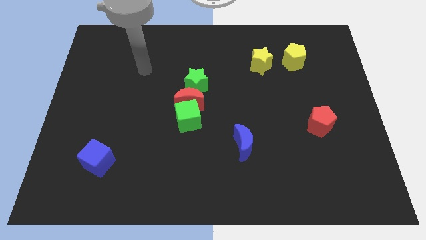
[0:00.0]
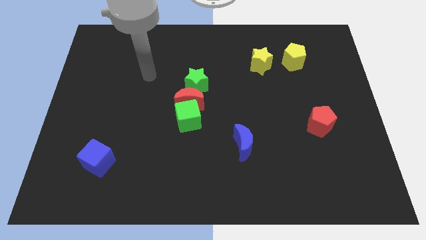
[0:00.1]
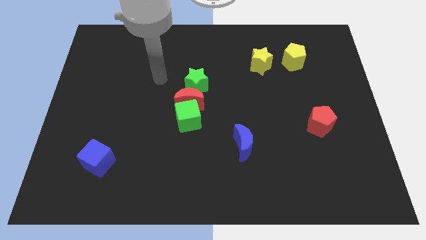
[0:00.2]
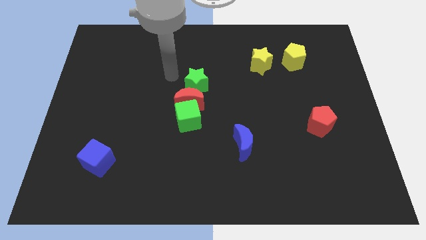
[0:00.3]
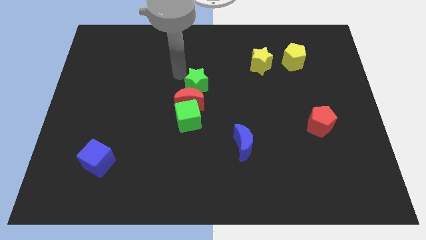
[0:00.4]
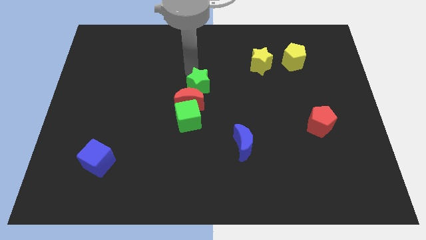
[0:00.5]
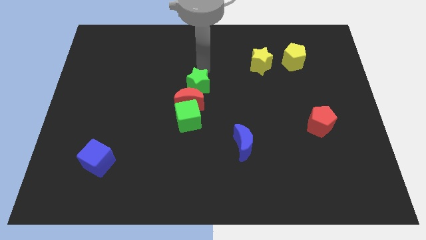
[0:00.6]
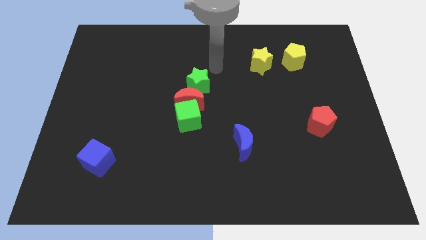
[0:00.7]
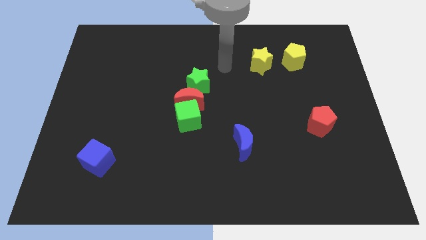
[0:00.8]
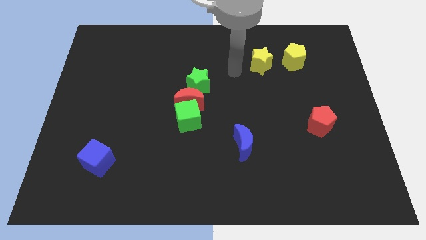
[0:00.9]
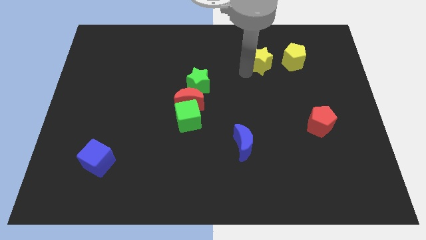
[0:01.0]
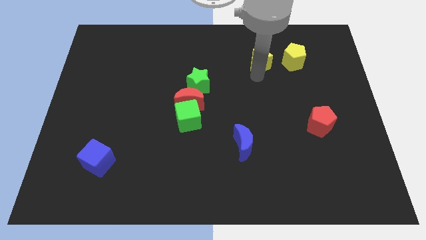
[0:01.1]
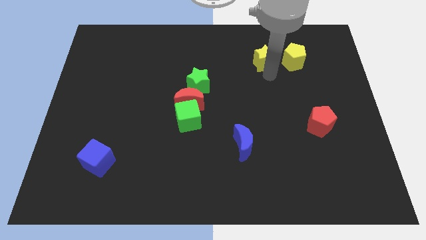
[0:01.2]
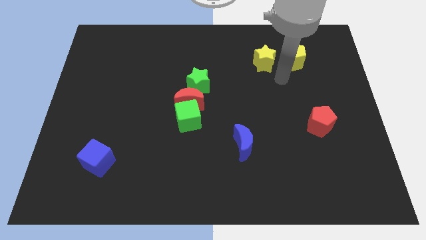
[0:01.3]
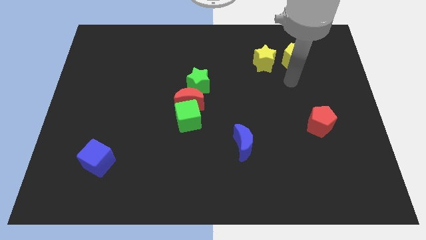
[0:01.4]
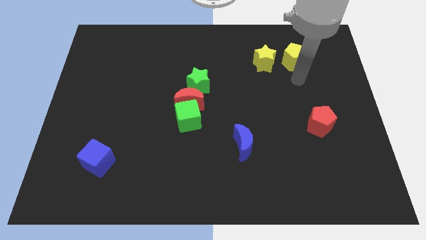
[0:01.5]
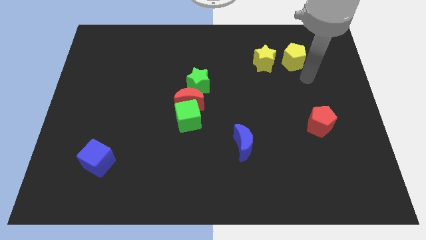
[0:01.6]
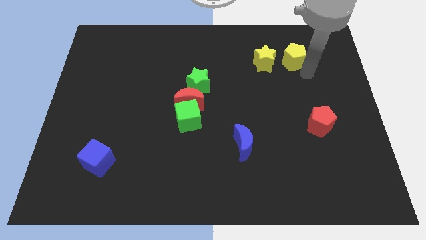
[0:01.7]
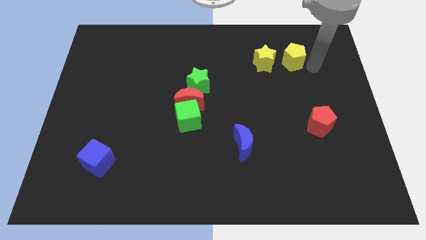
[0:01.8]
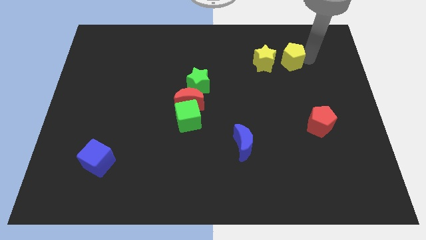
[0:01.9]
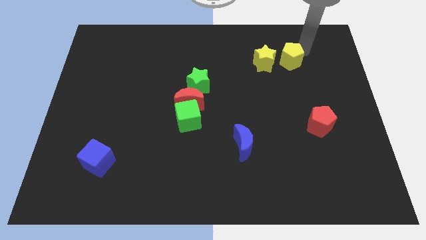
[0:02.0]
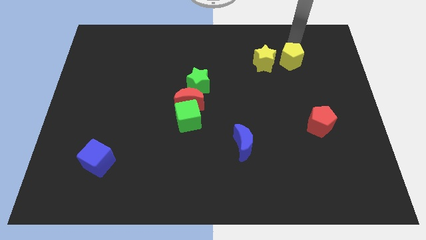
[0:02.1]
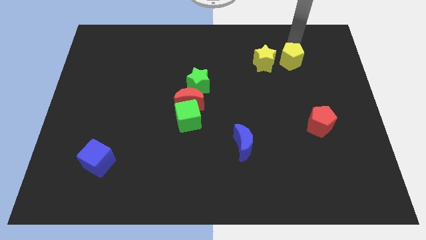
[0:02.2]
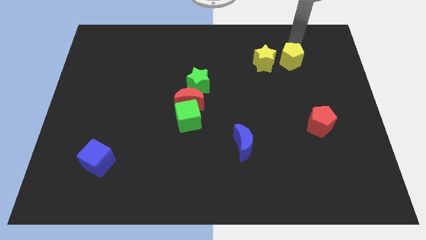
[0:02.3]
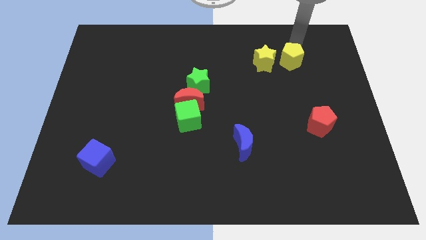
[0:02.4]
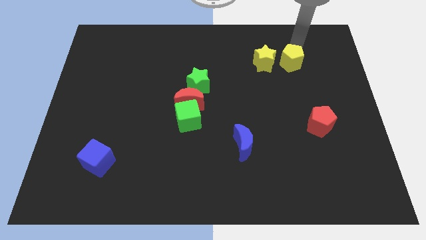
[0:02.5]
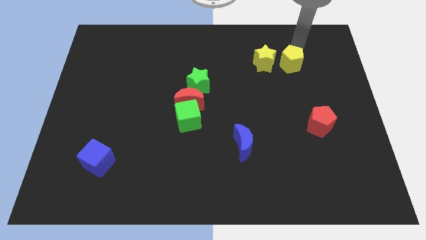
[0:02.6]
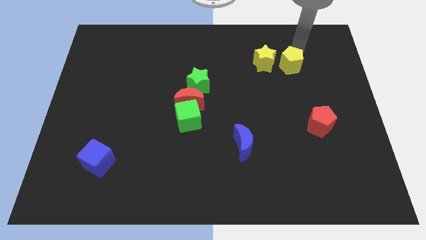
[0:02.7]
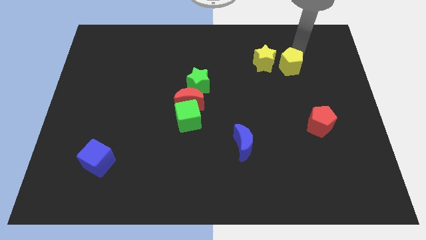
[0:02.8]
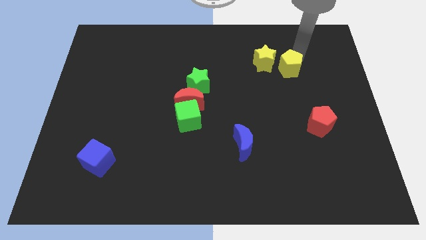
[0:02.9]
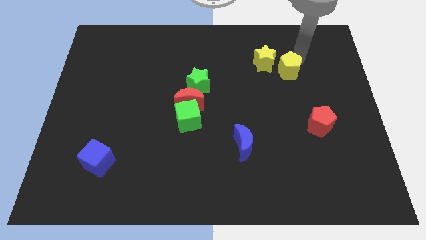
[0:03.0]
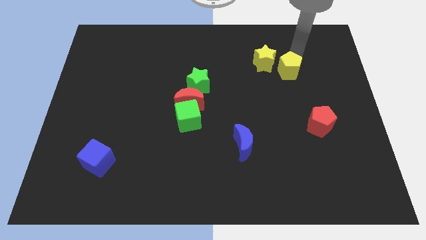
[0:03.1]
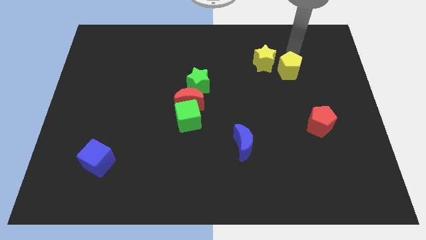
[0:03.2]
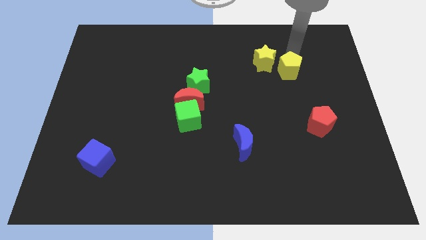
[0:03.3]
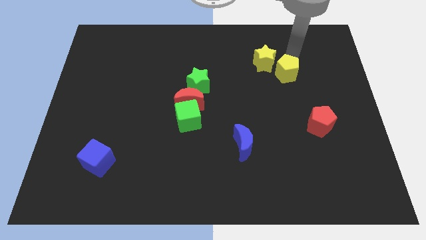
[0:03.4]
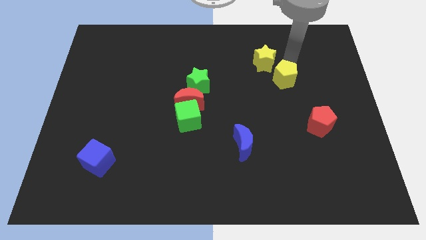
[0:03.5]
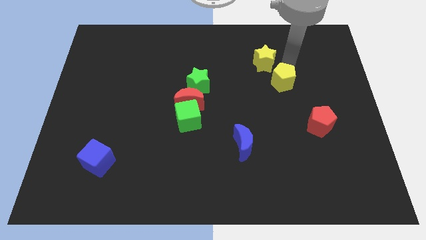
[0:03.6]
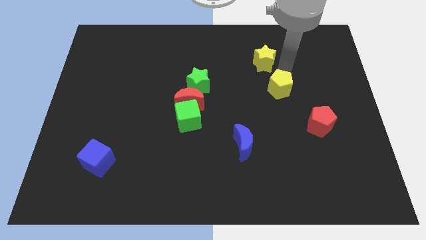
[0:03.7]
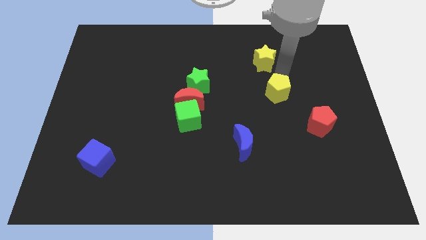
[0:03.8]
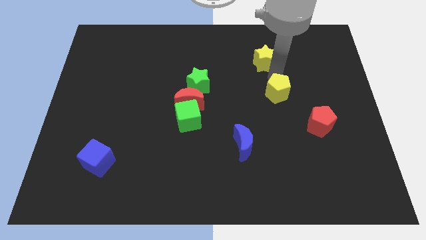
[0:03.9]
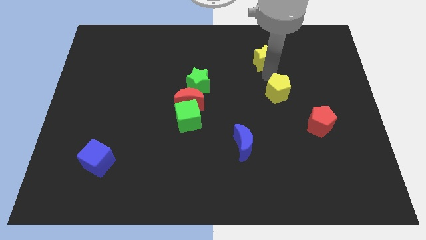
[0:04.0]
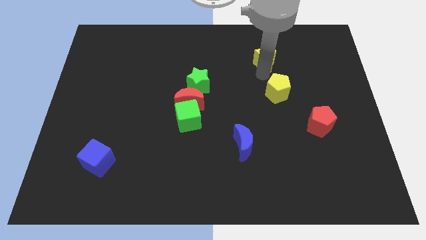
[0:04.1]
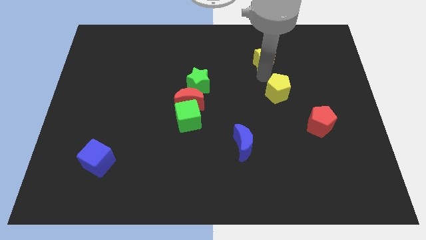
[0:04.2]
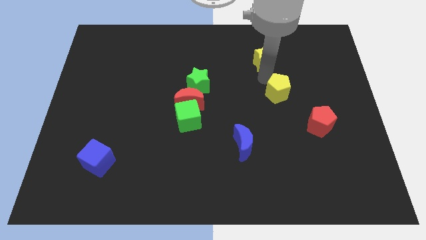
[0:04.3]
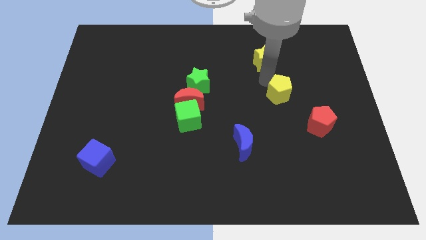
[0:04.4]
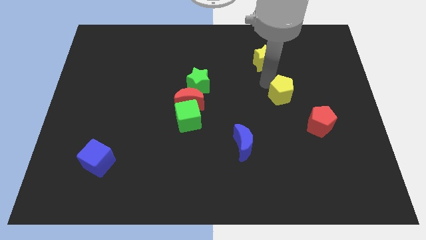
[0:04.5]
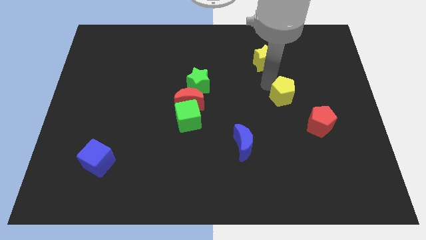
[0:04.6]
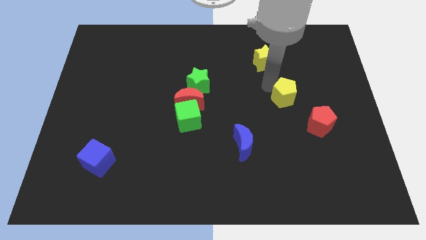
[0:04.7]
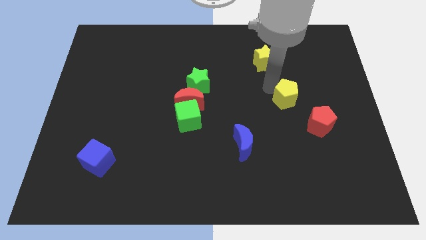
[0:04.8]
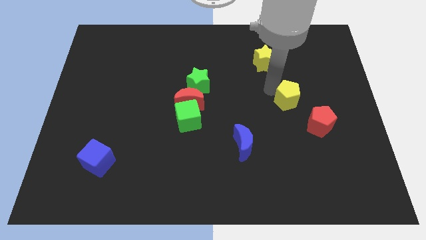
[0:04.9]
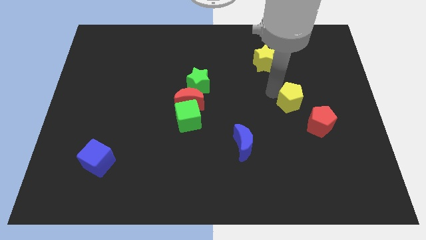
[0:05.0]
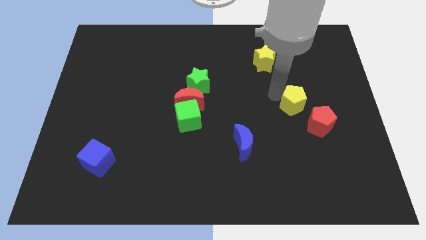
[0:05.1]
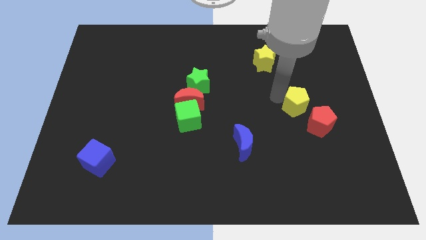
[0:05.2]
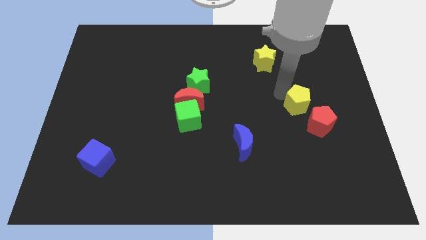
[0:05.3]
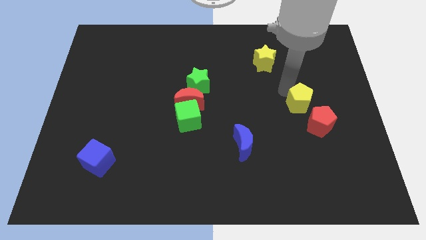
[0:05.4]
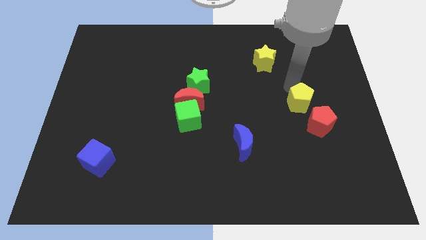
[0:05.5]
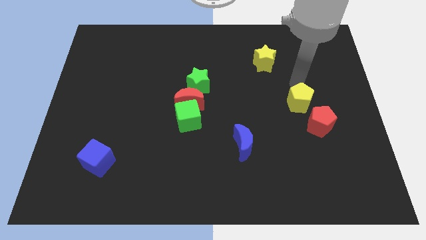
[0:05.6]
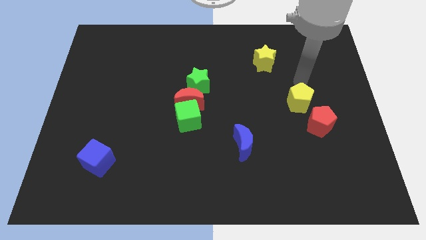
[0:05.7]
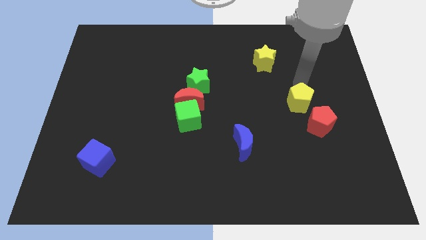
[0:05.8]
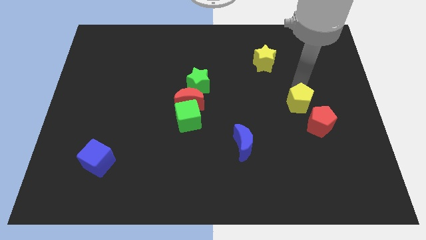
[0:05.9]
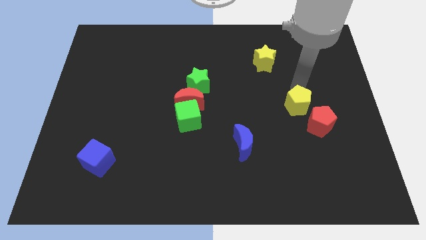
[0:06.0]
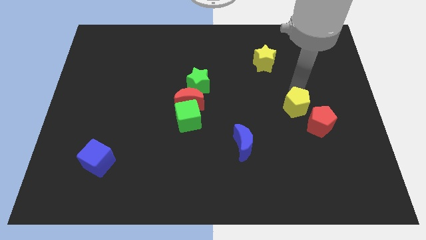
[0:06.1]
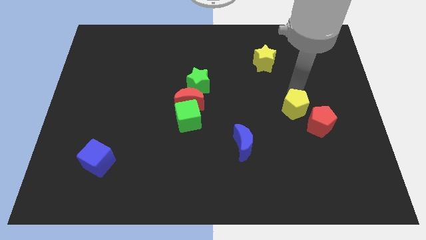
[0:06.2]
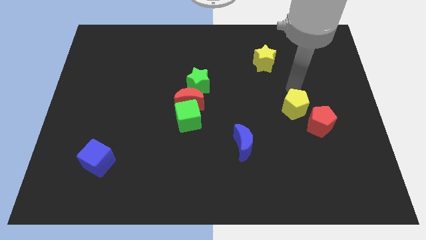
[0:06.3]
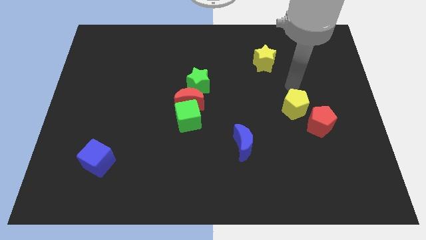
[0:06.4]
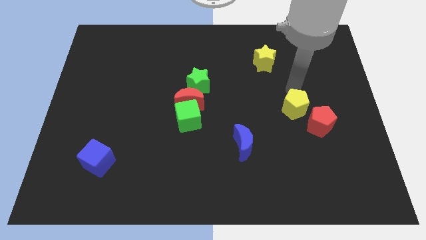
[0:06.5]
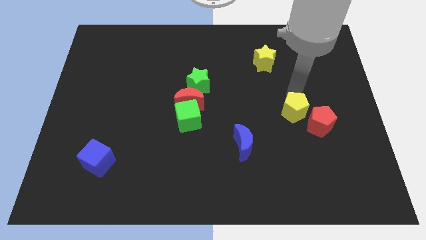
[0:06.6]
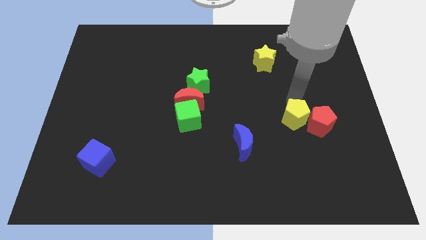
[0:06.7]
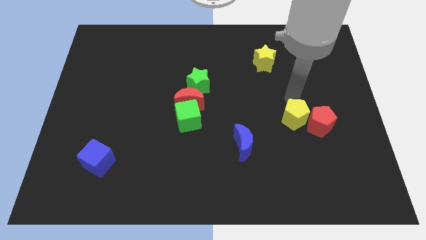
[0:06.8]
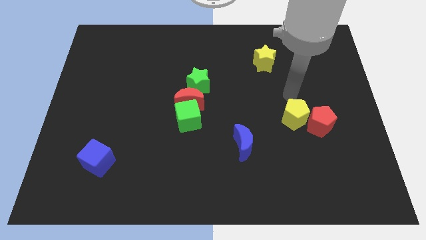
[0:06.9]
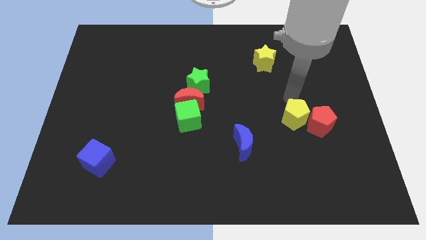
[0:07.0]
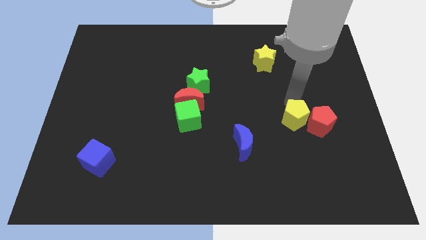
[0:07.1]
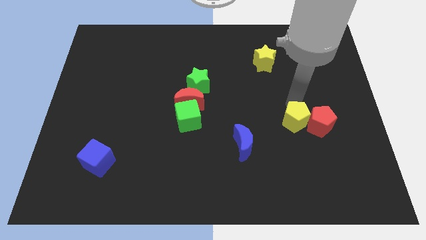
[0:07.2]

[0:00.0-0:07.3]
push the yellow pentagon diagonally down and to the left of the red pentagon

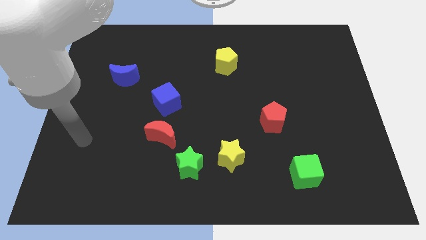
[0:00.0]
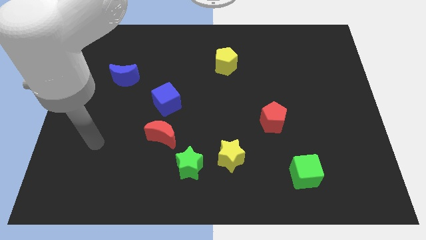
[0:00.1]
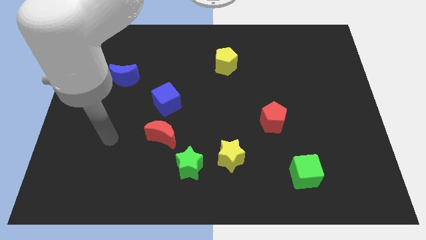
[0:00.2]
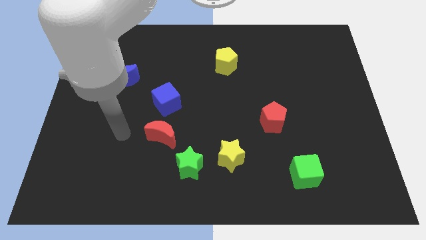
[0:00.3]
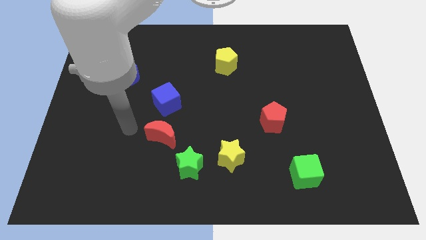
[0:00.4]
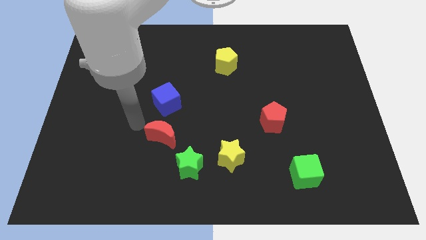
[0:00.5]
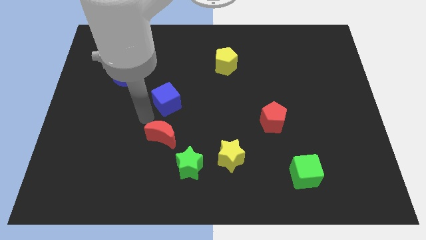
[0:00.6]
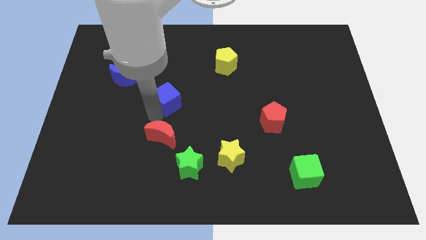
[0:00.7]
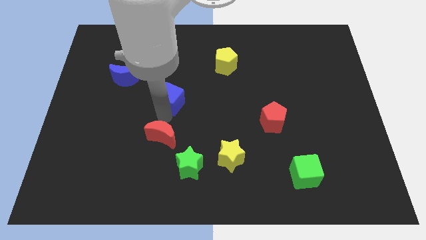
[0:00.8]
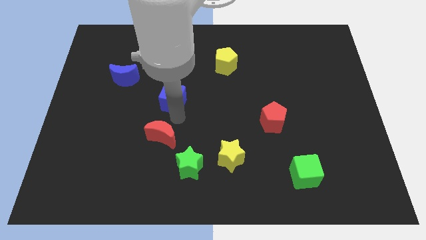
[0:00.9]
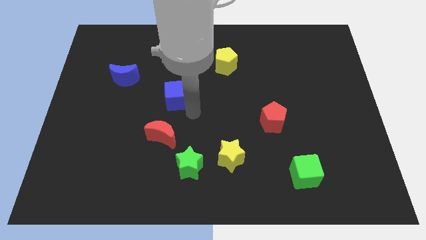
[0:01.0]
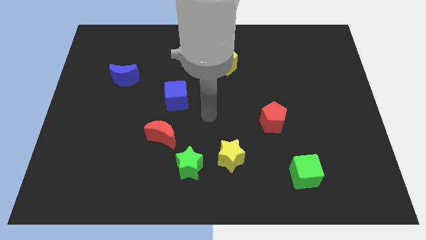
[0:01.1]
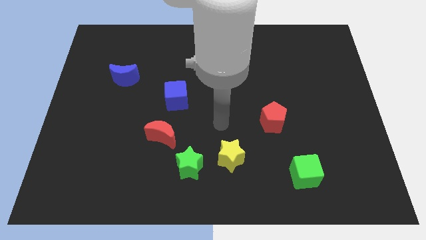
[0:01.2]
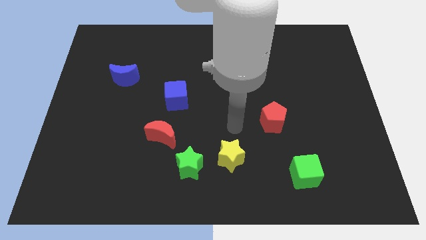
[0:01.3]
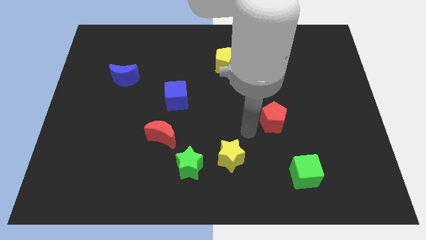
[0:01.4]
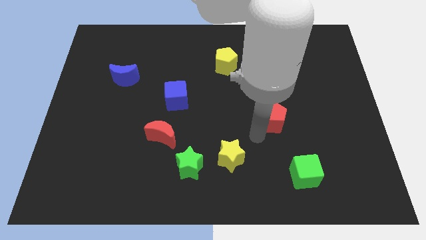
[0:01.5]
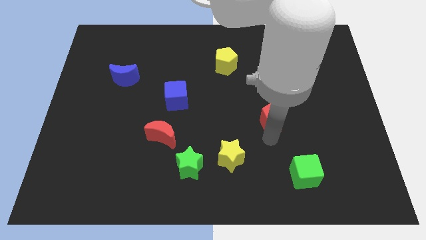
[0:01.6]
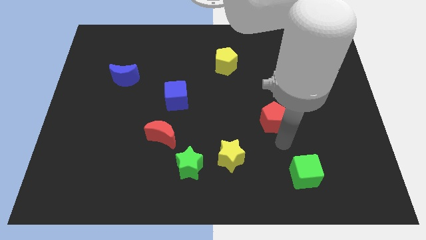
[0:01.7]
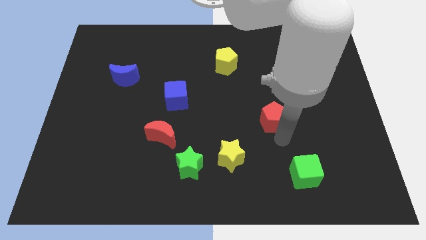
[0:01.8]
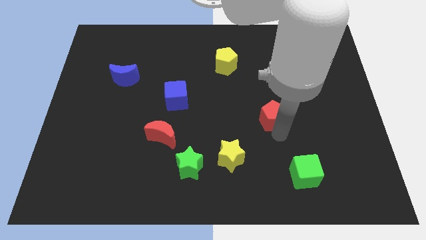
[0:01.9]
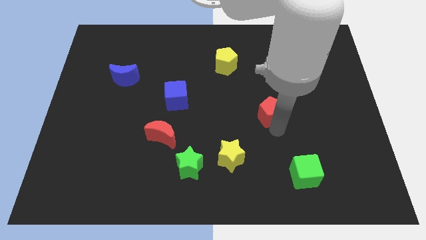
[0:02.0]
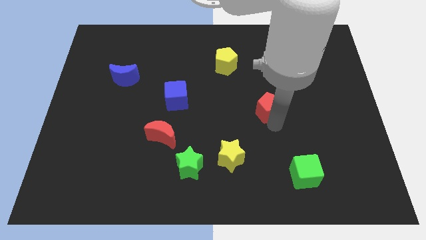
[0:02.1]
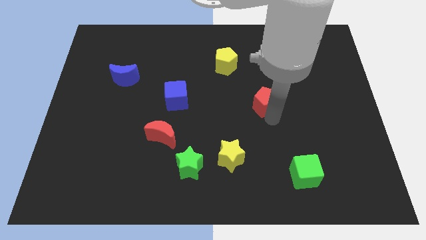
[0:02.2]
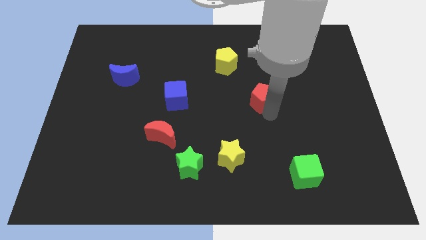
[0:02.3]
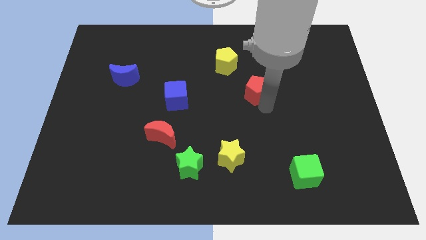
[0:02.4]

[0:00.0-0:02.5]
slide the red pentagon to the bottom right side of the yellow pentagon
